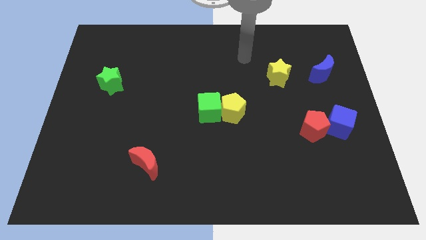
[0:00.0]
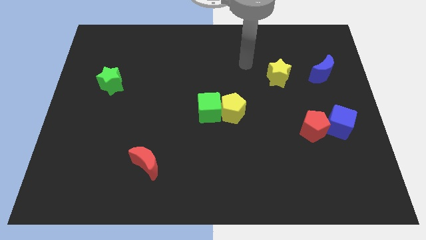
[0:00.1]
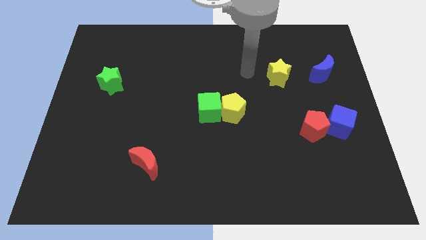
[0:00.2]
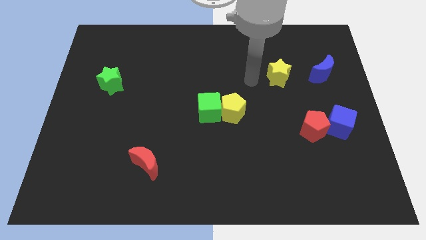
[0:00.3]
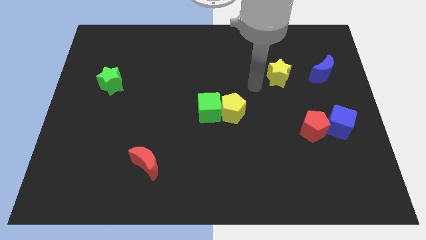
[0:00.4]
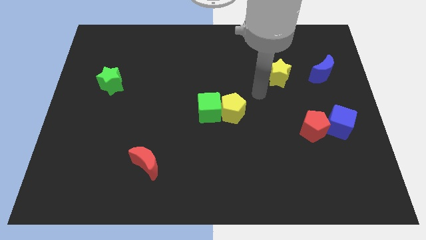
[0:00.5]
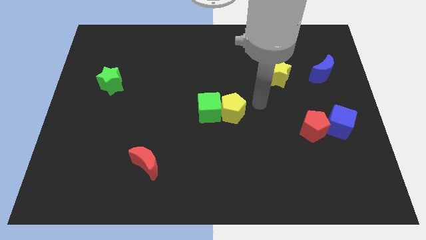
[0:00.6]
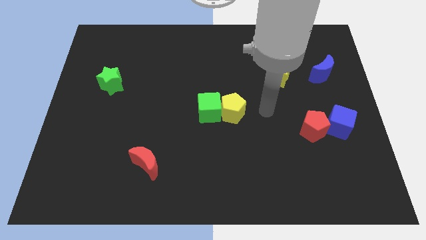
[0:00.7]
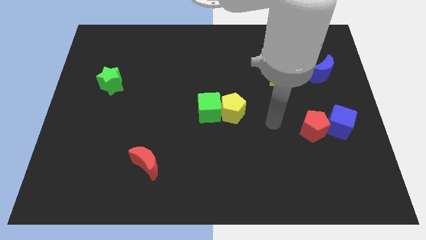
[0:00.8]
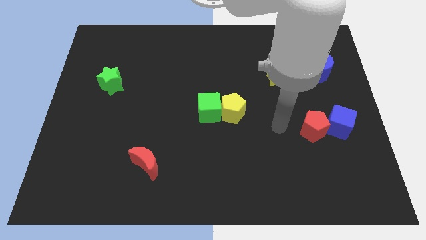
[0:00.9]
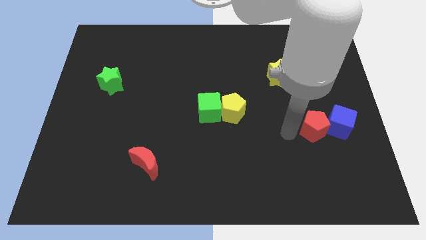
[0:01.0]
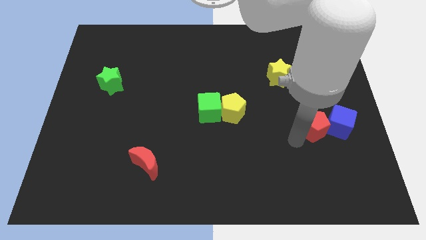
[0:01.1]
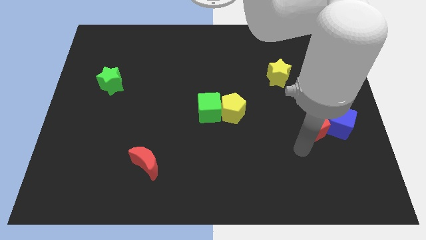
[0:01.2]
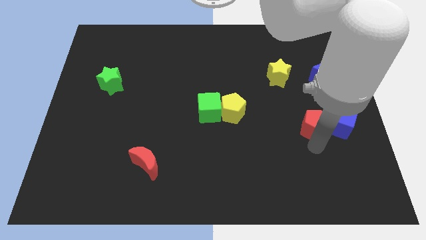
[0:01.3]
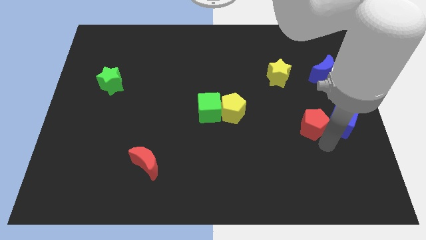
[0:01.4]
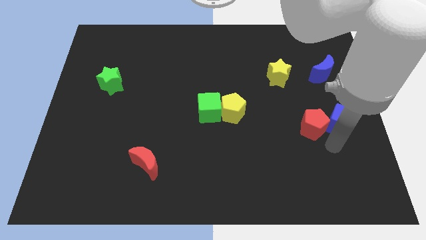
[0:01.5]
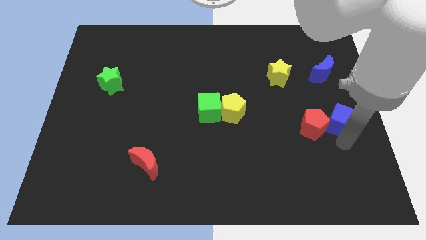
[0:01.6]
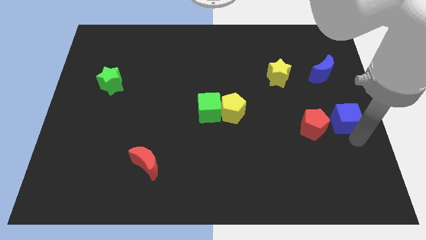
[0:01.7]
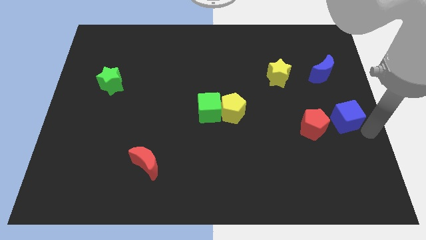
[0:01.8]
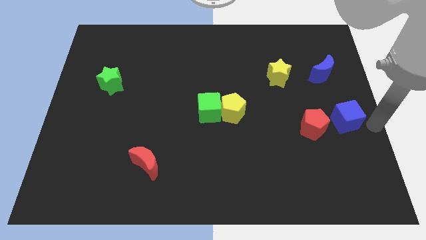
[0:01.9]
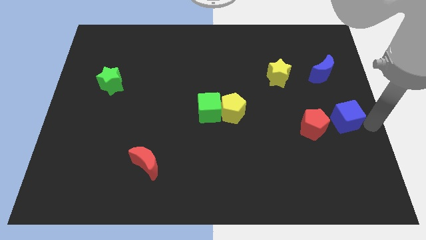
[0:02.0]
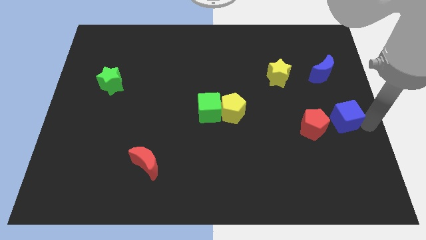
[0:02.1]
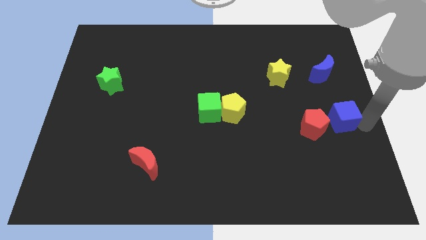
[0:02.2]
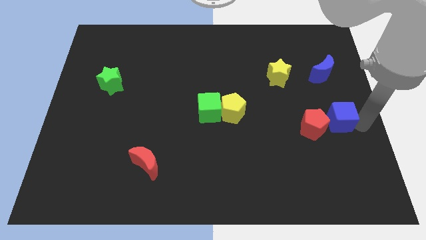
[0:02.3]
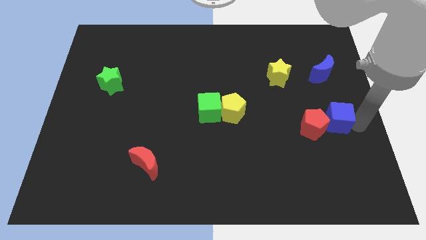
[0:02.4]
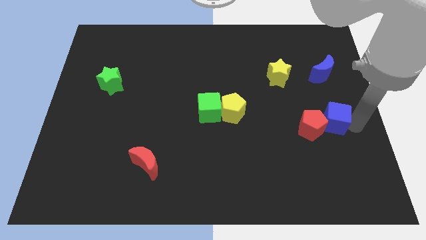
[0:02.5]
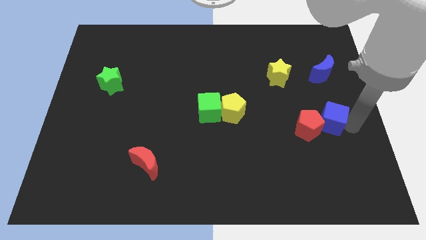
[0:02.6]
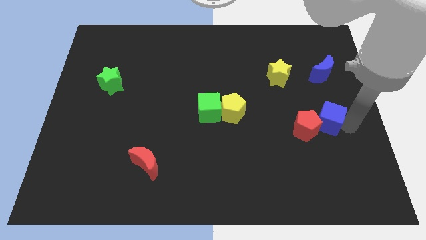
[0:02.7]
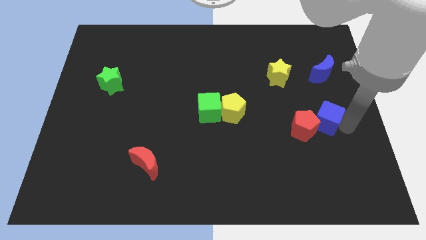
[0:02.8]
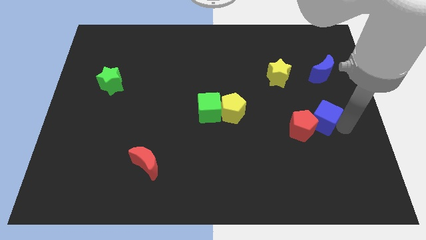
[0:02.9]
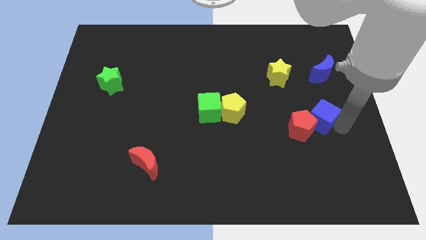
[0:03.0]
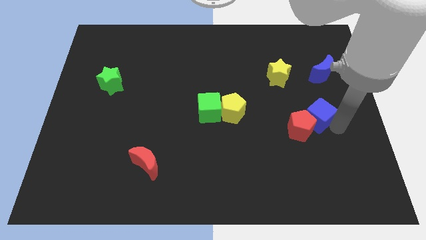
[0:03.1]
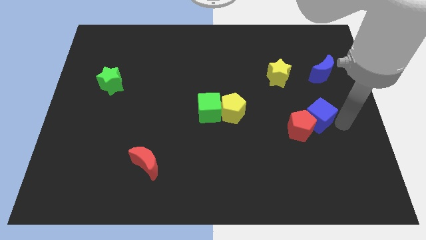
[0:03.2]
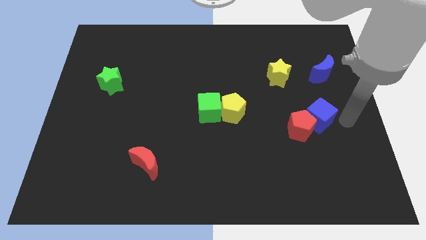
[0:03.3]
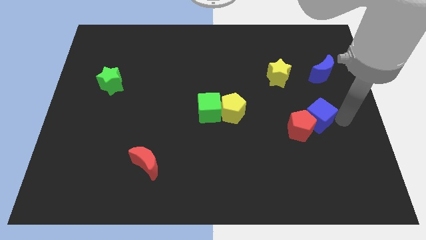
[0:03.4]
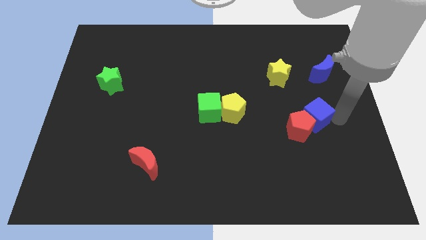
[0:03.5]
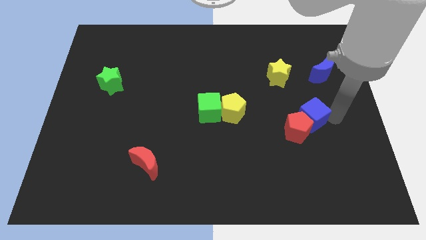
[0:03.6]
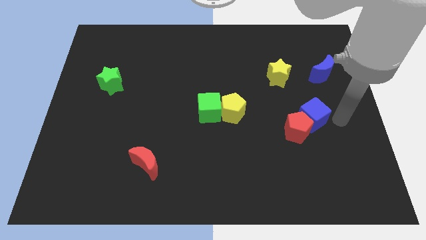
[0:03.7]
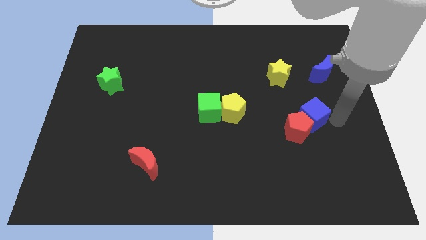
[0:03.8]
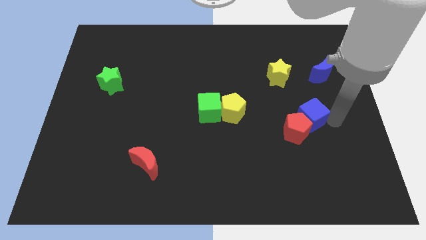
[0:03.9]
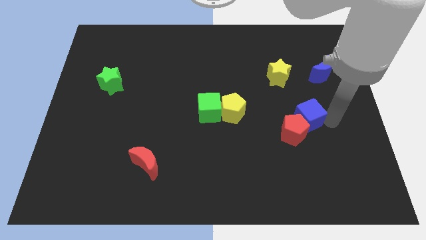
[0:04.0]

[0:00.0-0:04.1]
push the blue cube a little bit to the left

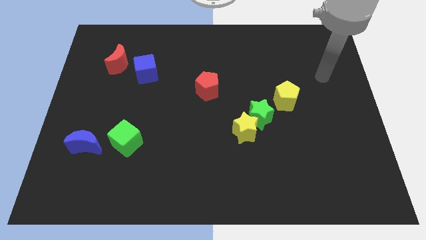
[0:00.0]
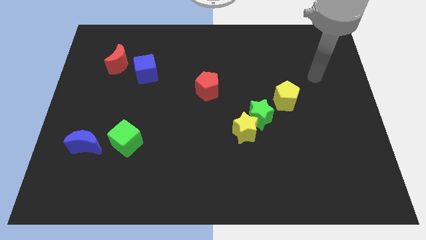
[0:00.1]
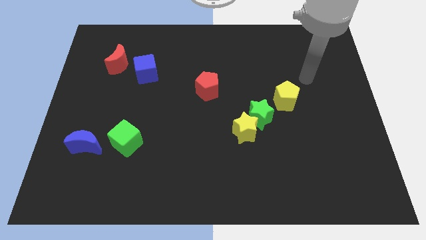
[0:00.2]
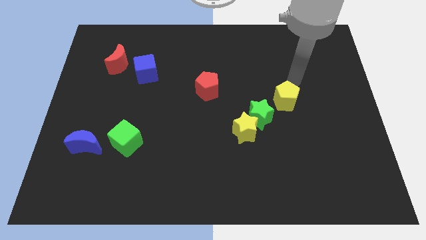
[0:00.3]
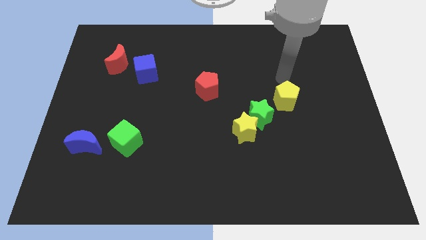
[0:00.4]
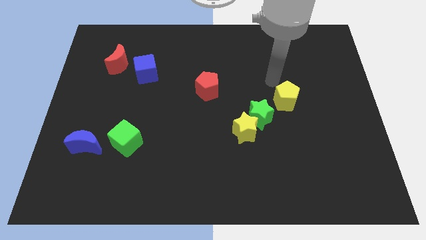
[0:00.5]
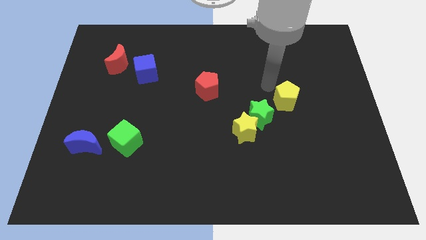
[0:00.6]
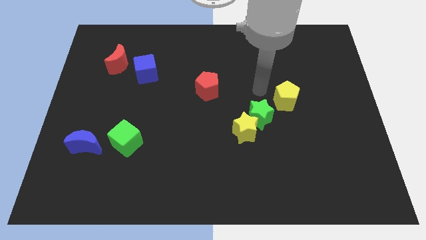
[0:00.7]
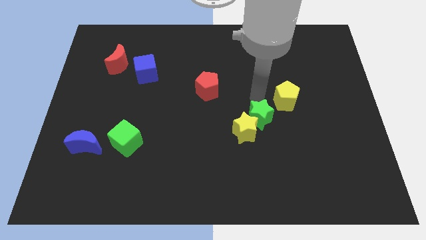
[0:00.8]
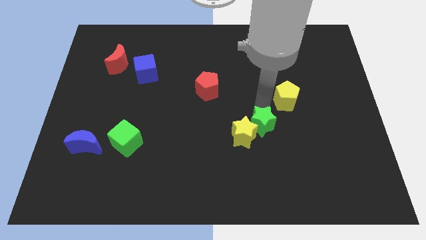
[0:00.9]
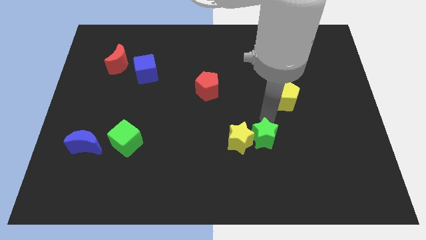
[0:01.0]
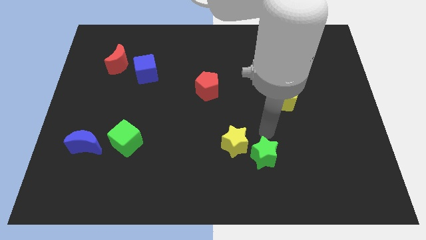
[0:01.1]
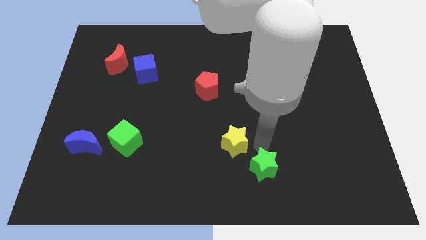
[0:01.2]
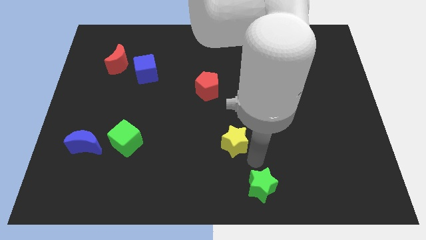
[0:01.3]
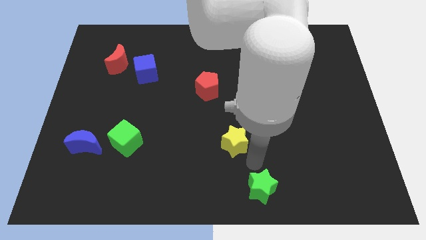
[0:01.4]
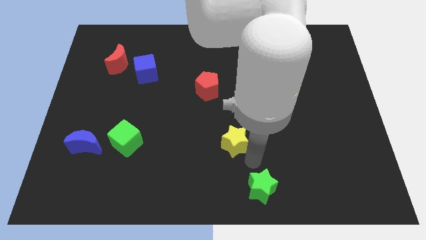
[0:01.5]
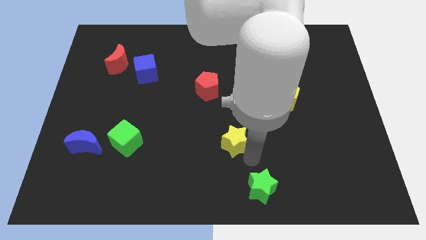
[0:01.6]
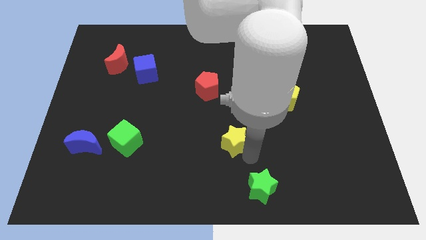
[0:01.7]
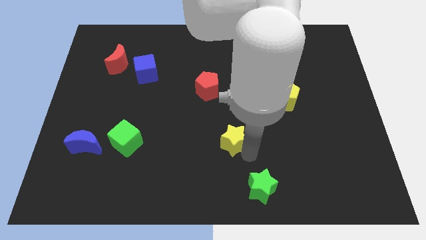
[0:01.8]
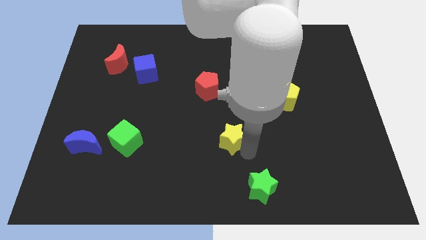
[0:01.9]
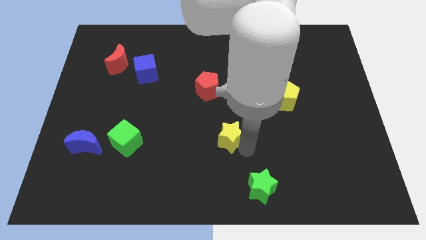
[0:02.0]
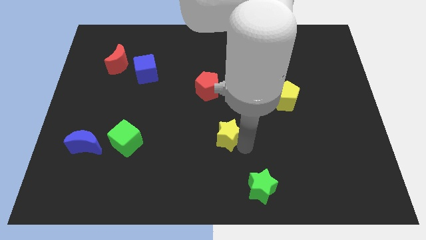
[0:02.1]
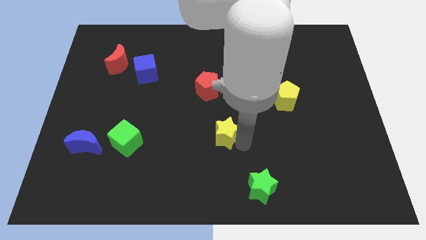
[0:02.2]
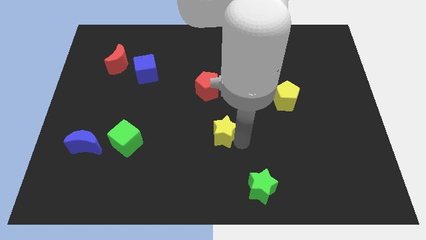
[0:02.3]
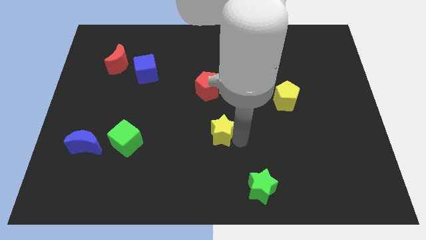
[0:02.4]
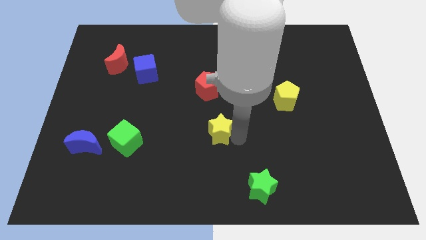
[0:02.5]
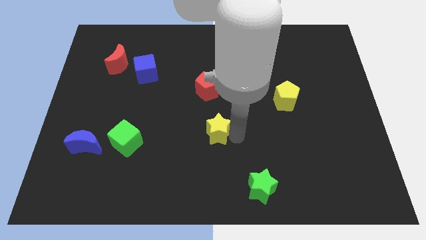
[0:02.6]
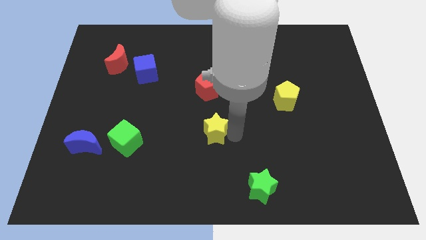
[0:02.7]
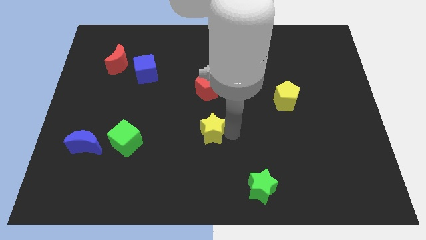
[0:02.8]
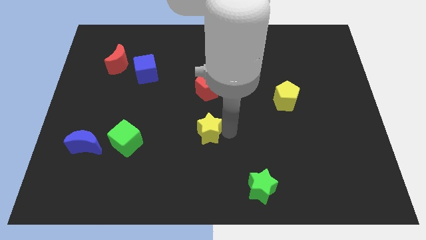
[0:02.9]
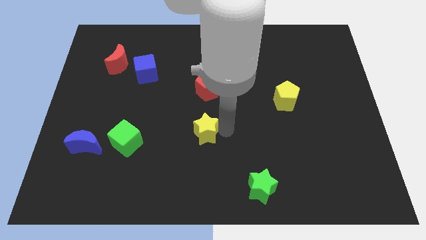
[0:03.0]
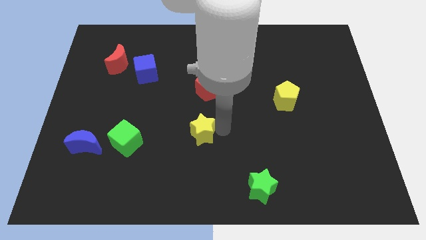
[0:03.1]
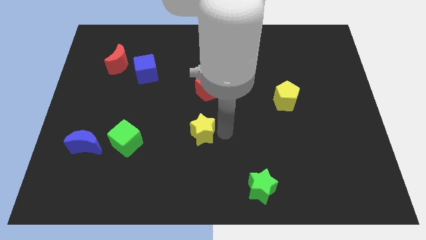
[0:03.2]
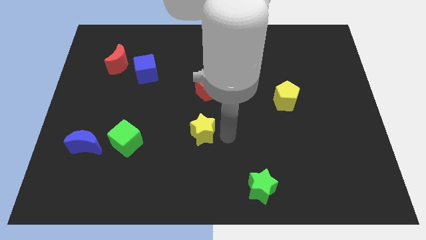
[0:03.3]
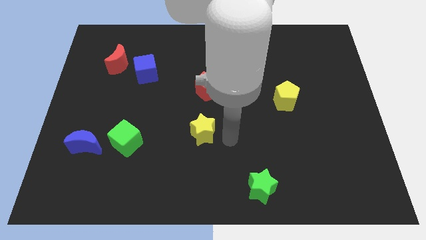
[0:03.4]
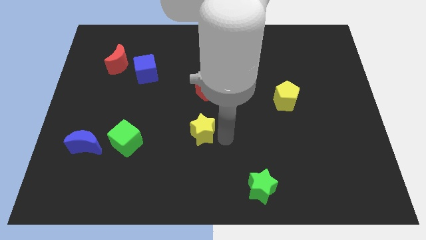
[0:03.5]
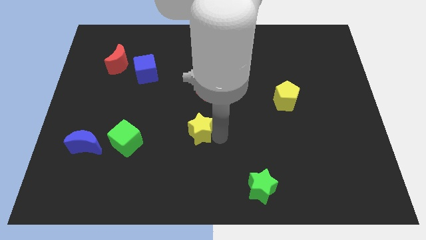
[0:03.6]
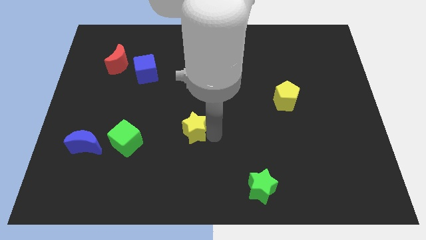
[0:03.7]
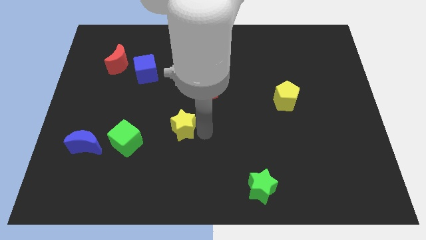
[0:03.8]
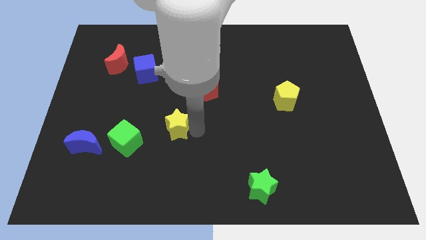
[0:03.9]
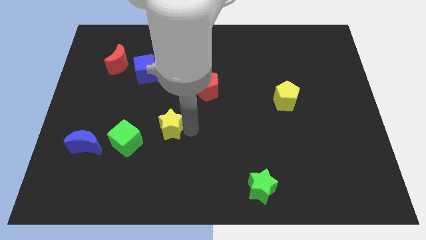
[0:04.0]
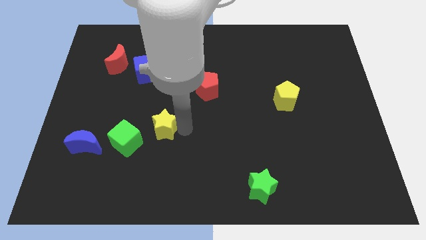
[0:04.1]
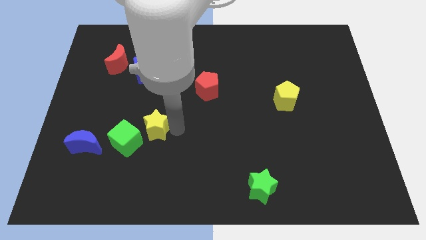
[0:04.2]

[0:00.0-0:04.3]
push the yellow star left
